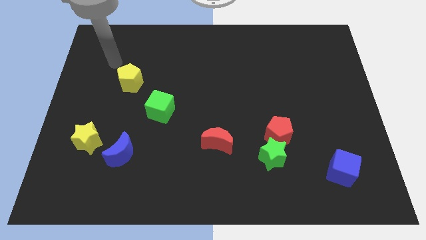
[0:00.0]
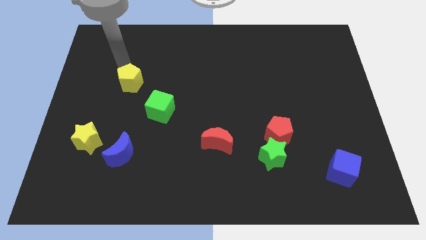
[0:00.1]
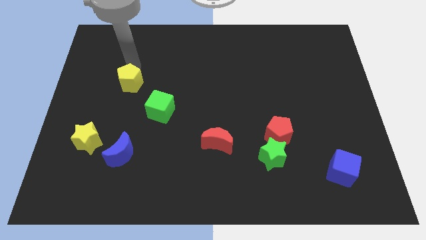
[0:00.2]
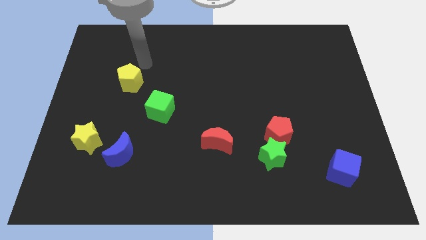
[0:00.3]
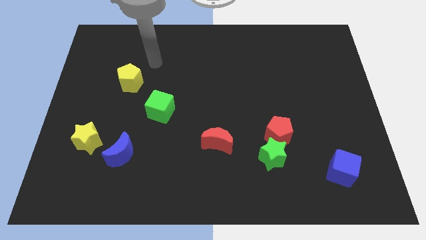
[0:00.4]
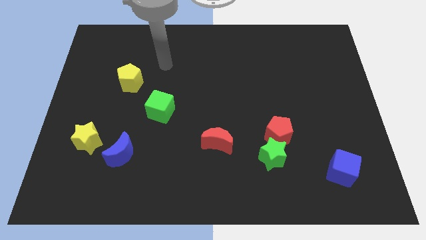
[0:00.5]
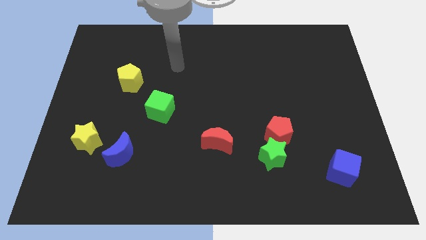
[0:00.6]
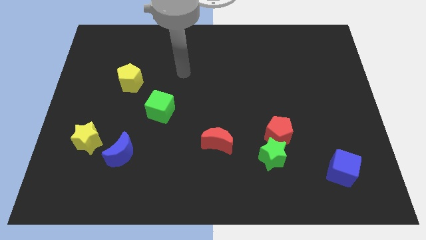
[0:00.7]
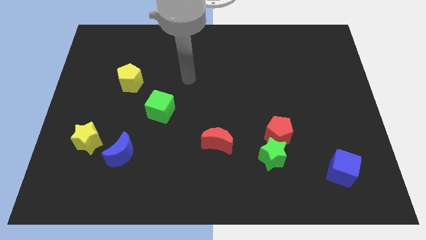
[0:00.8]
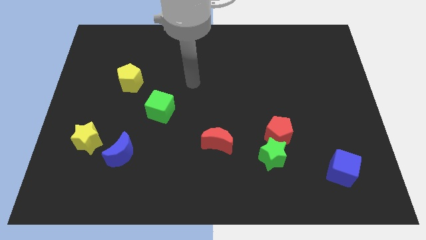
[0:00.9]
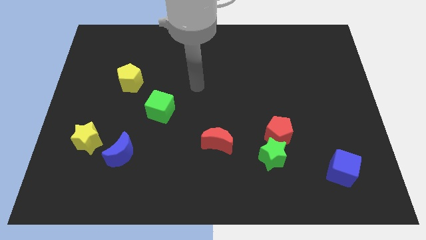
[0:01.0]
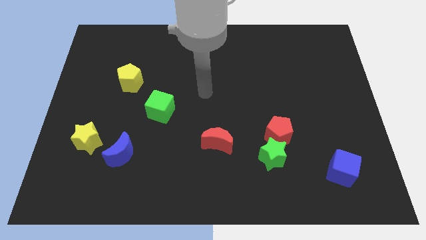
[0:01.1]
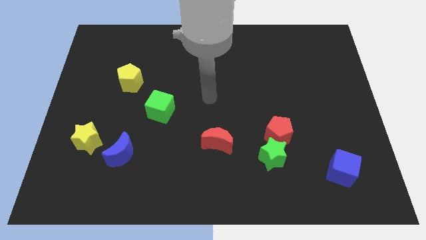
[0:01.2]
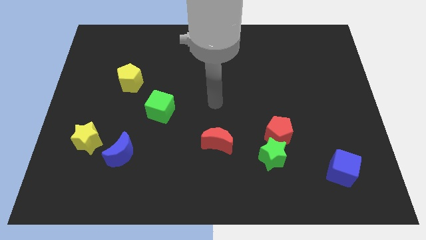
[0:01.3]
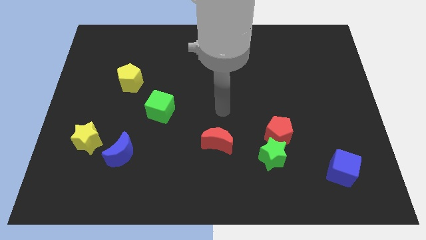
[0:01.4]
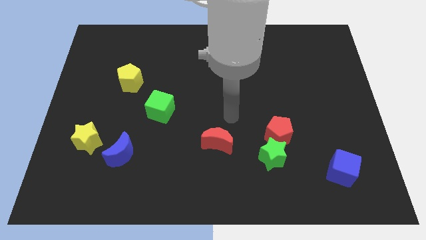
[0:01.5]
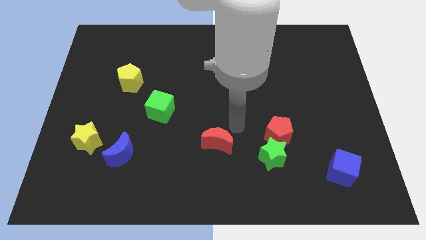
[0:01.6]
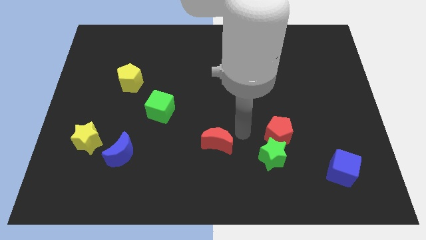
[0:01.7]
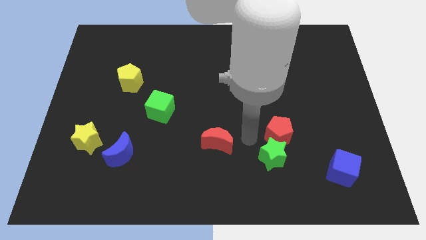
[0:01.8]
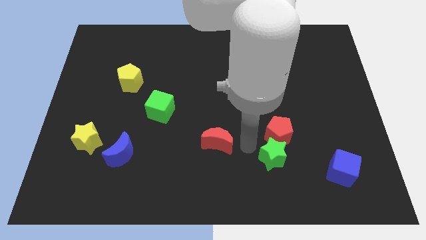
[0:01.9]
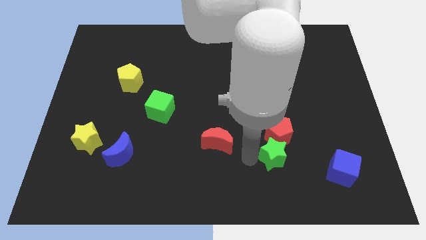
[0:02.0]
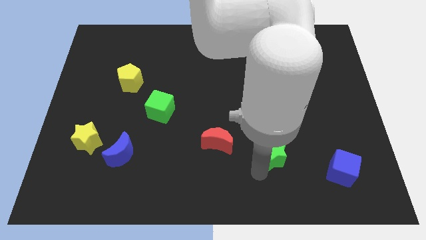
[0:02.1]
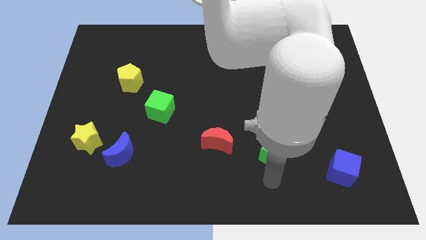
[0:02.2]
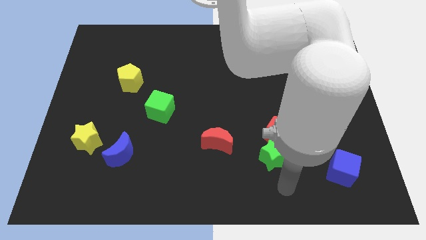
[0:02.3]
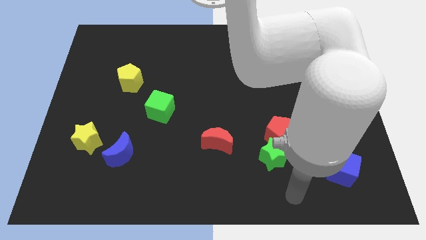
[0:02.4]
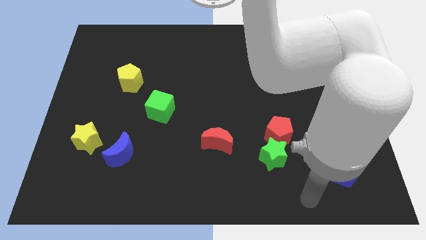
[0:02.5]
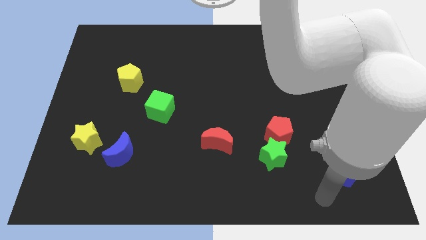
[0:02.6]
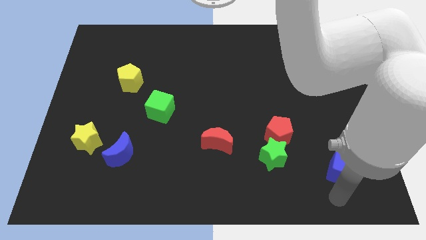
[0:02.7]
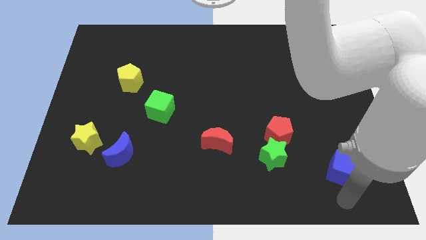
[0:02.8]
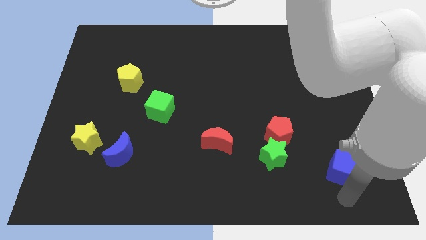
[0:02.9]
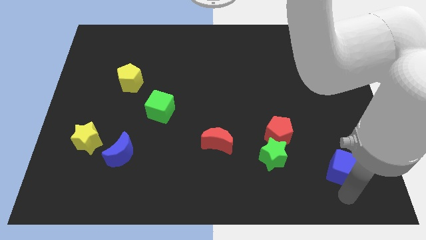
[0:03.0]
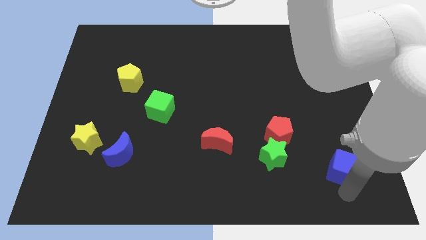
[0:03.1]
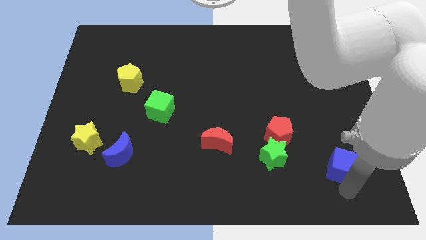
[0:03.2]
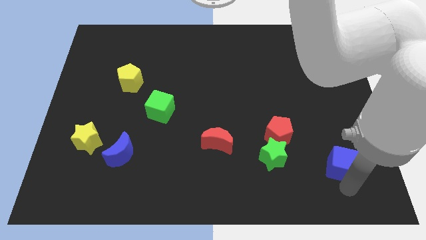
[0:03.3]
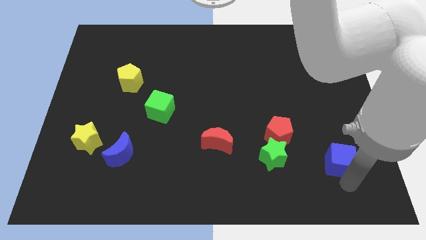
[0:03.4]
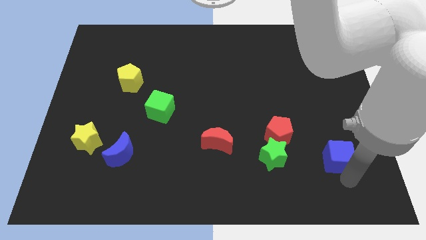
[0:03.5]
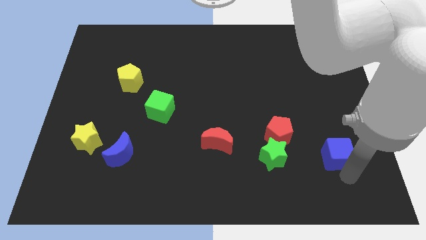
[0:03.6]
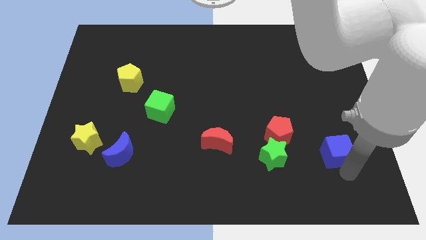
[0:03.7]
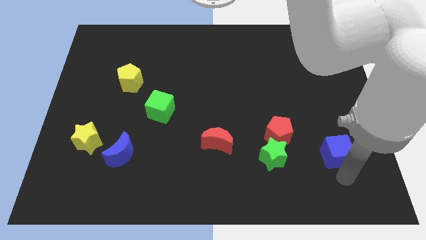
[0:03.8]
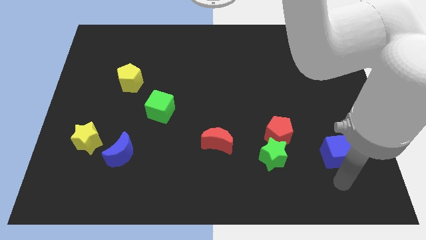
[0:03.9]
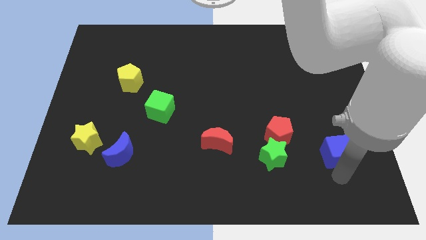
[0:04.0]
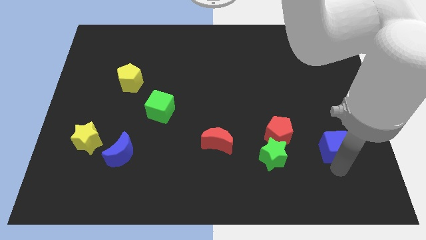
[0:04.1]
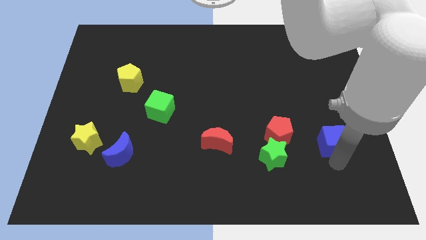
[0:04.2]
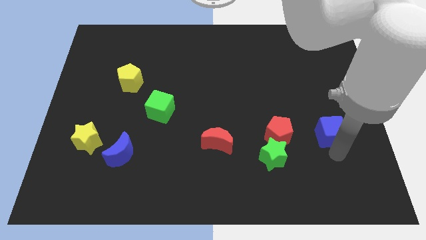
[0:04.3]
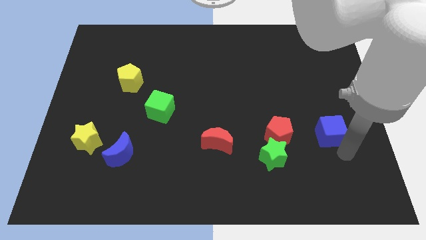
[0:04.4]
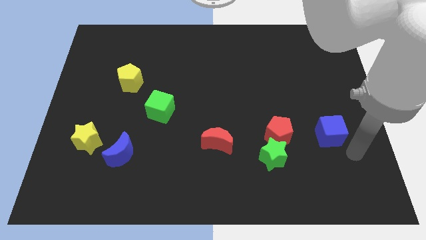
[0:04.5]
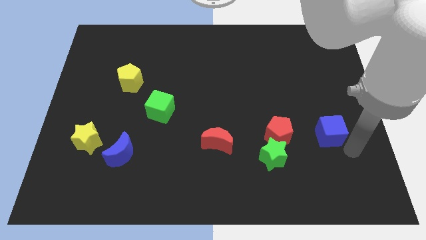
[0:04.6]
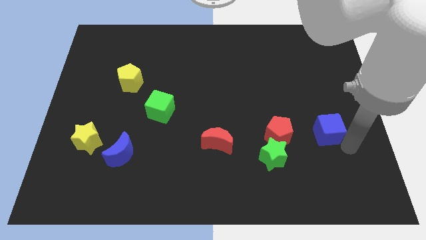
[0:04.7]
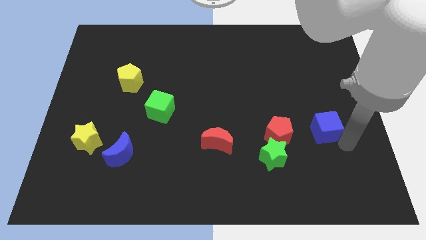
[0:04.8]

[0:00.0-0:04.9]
slightly push the blue cube diagonally upwards and to the left

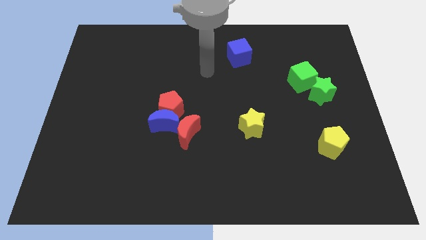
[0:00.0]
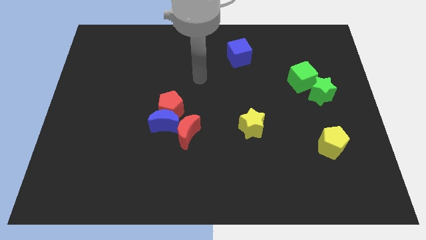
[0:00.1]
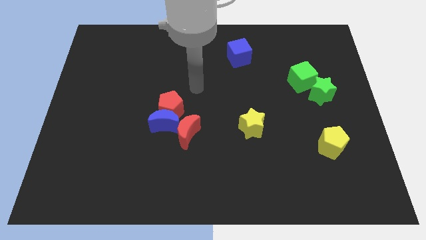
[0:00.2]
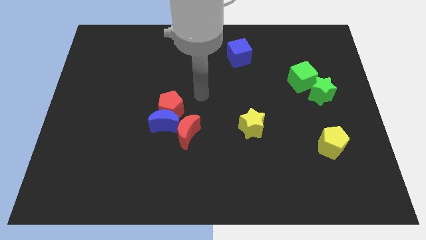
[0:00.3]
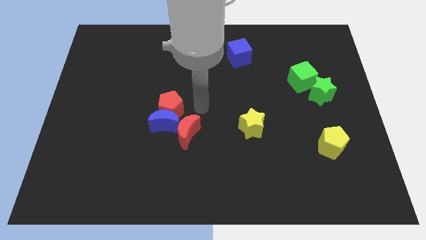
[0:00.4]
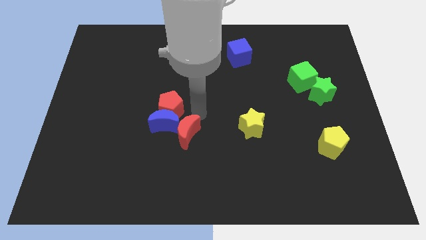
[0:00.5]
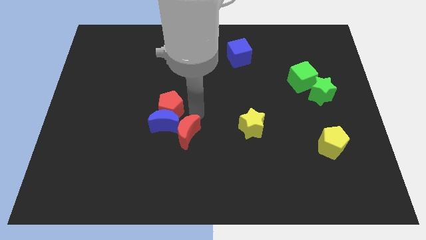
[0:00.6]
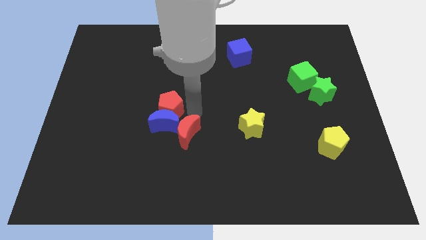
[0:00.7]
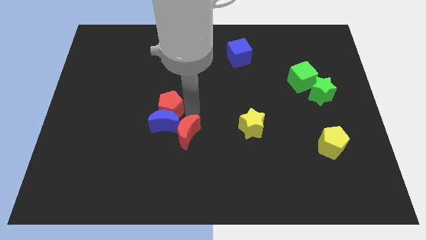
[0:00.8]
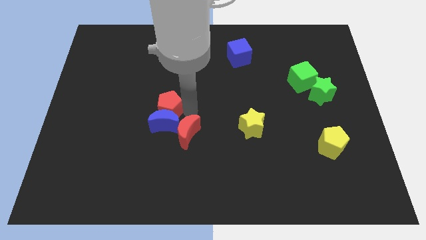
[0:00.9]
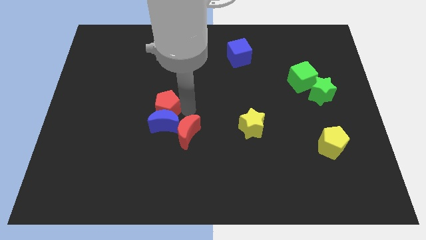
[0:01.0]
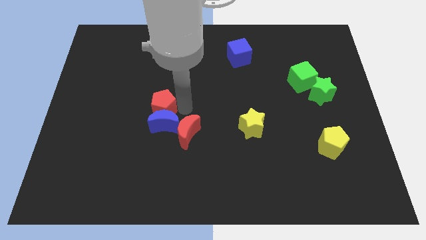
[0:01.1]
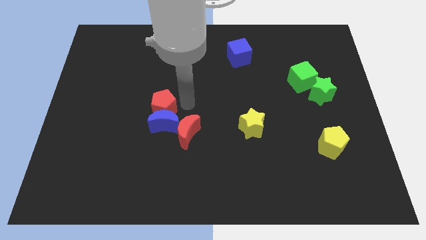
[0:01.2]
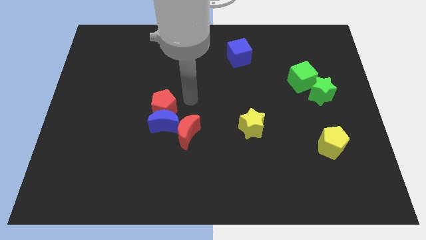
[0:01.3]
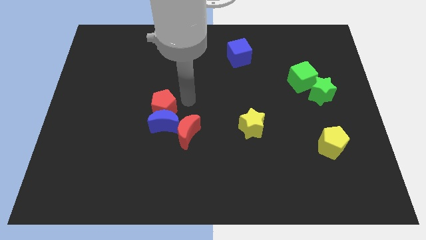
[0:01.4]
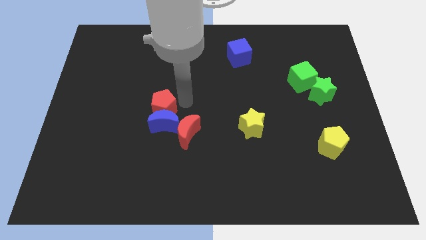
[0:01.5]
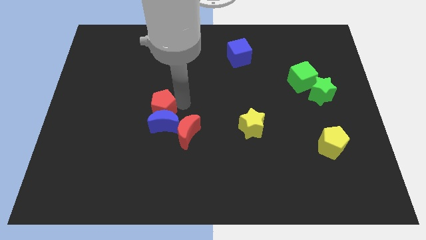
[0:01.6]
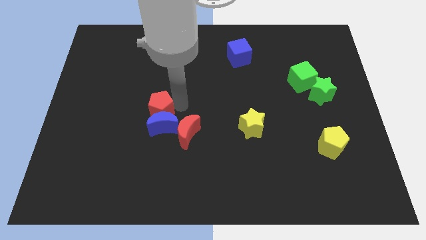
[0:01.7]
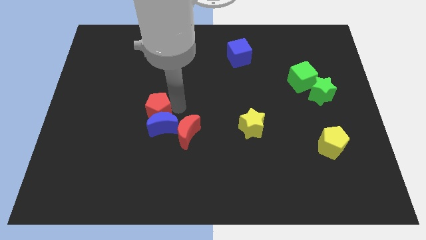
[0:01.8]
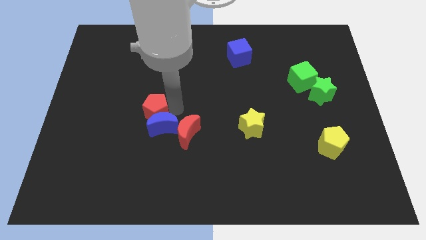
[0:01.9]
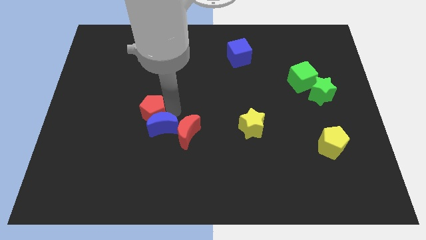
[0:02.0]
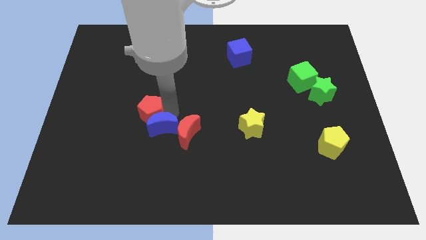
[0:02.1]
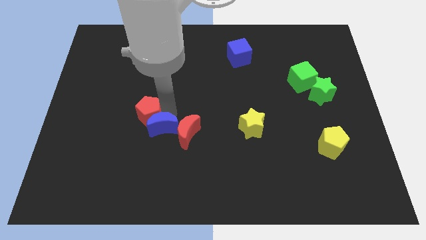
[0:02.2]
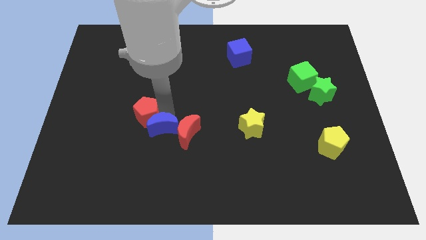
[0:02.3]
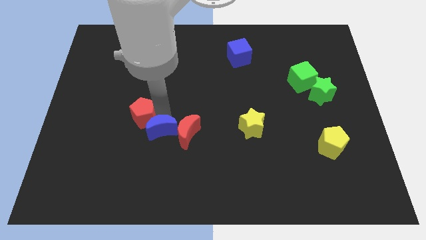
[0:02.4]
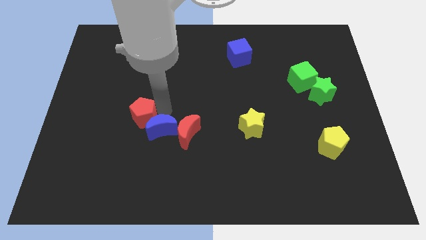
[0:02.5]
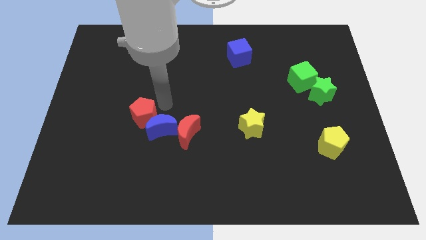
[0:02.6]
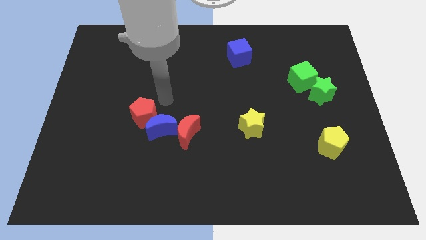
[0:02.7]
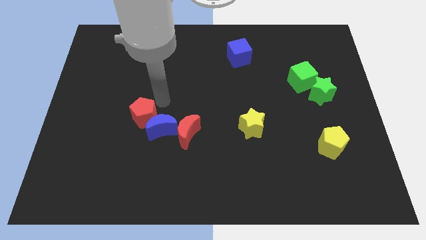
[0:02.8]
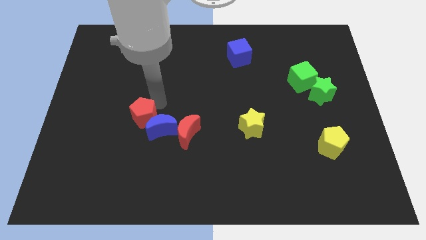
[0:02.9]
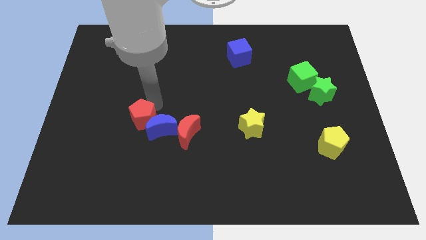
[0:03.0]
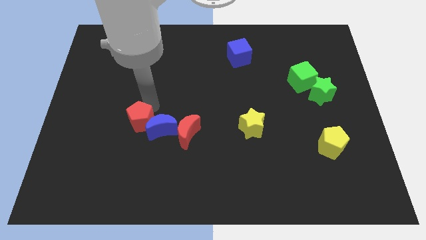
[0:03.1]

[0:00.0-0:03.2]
slightly slide the red pentagon down and to the left

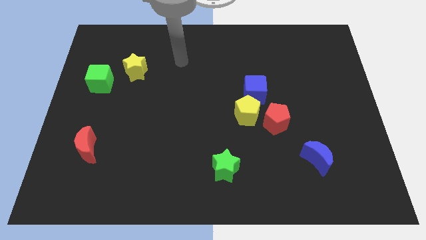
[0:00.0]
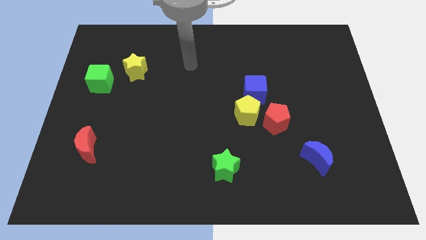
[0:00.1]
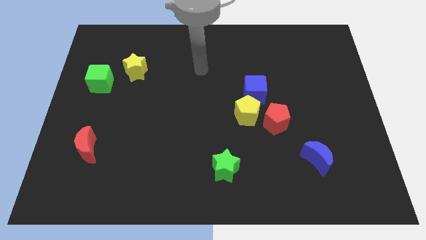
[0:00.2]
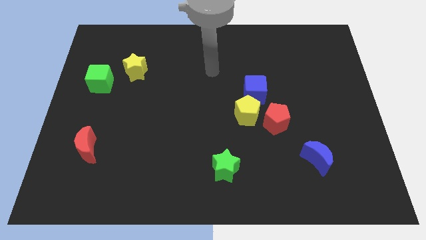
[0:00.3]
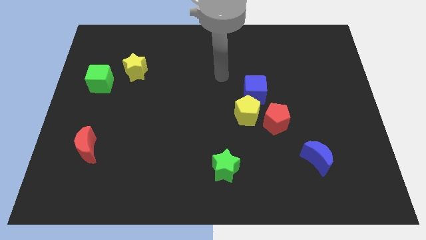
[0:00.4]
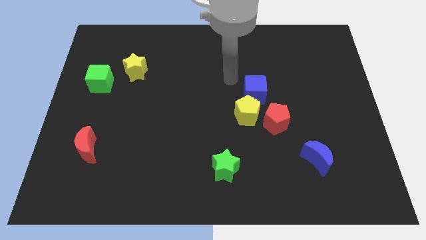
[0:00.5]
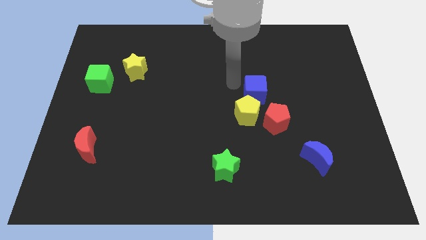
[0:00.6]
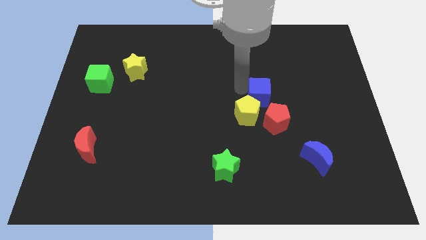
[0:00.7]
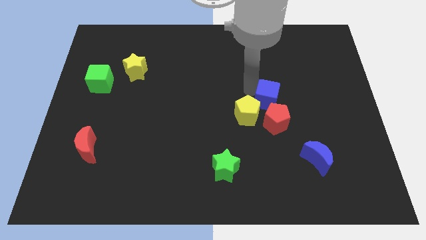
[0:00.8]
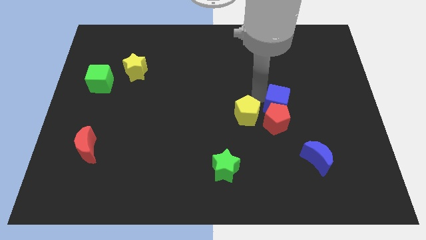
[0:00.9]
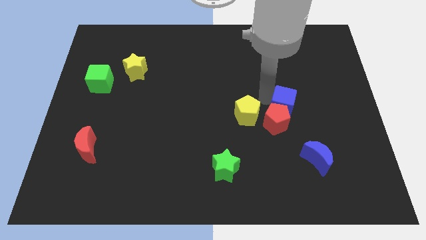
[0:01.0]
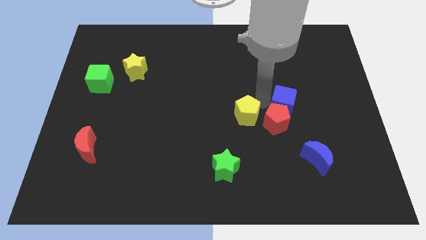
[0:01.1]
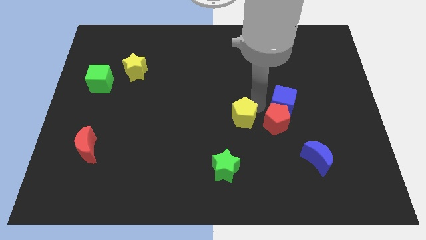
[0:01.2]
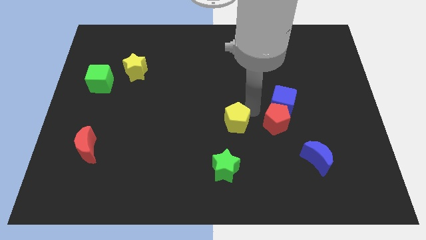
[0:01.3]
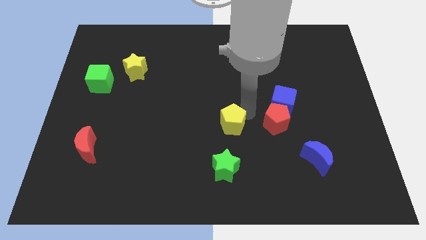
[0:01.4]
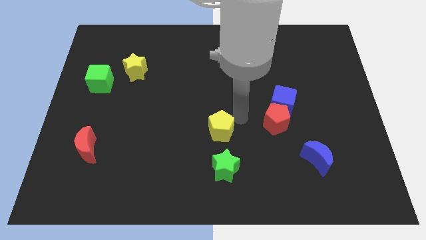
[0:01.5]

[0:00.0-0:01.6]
move the yellow pentagon a little bit down and then left
